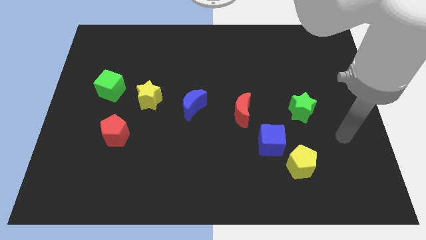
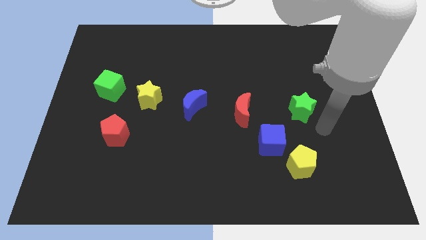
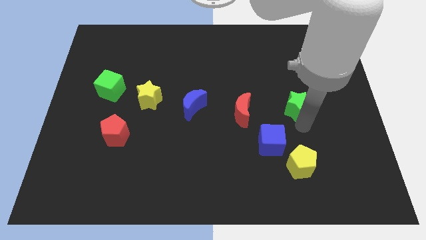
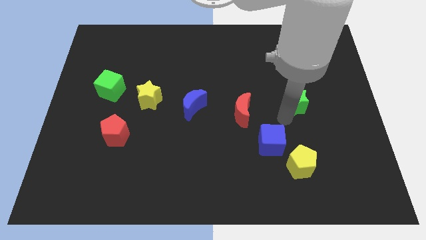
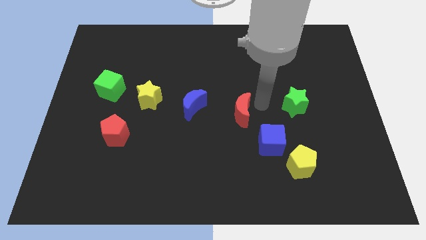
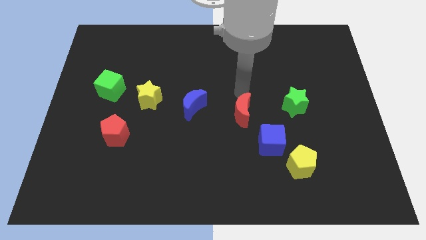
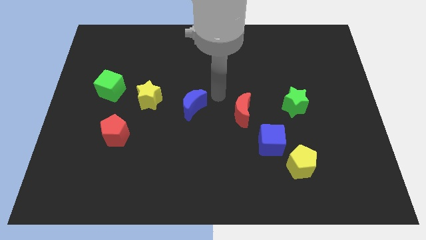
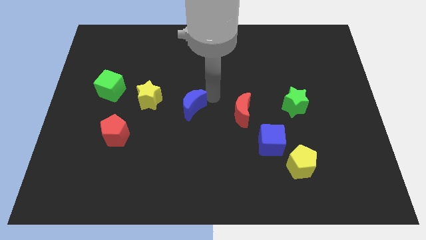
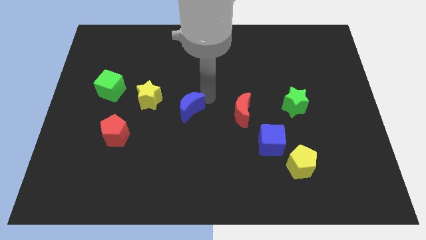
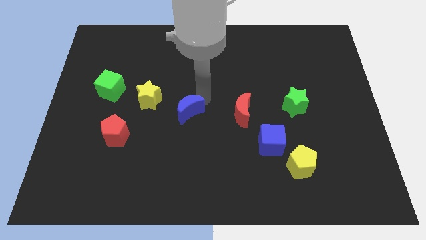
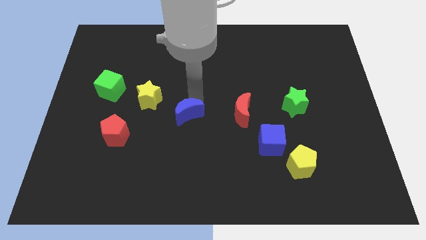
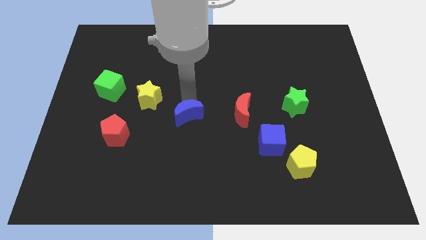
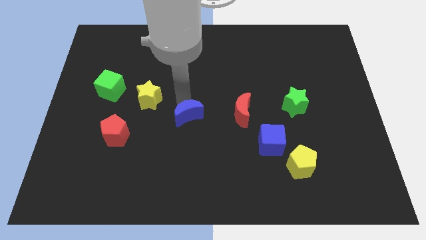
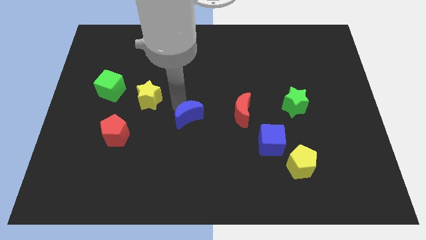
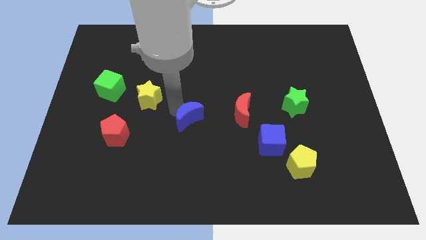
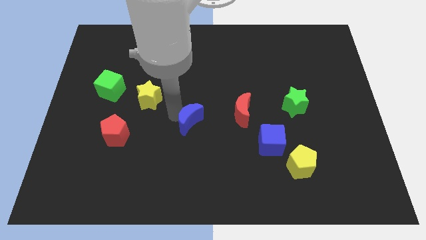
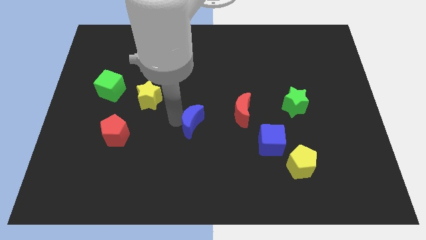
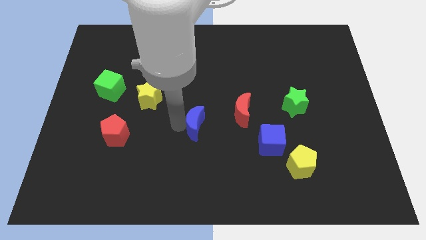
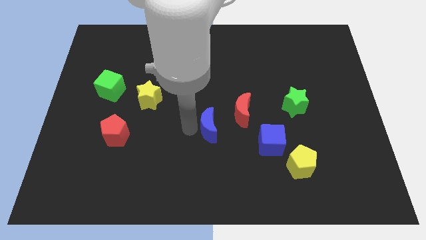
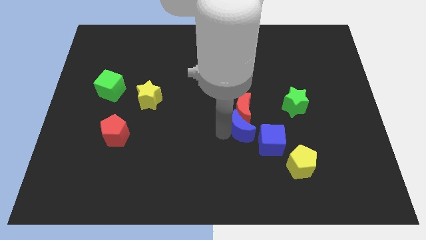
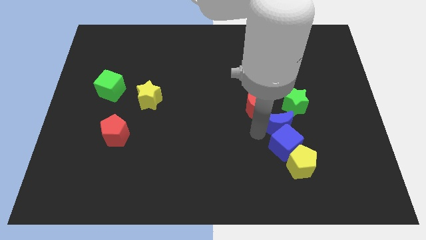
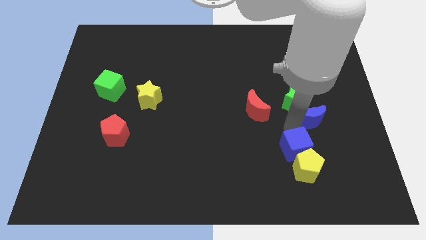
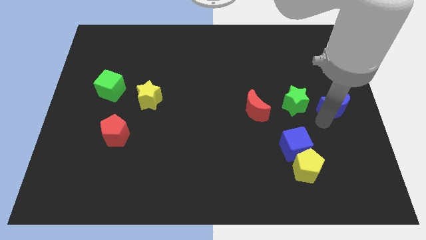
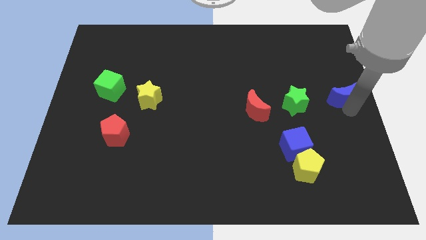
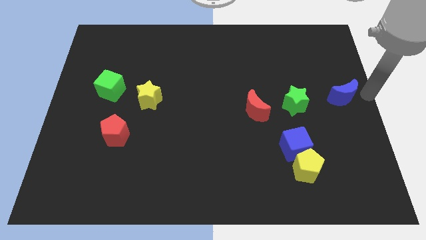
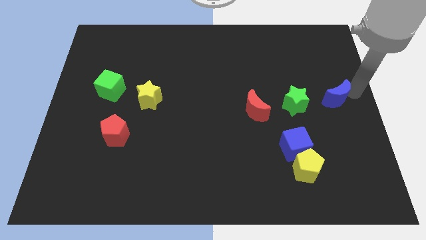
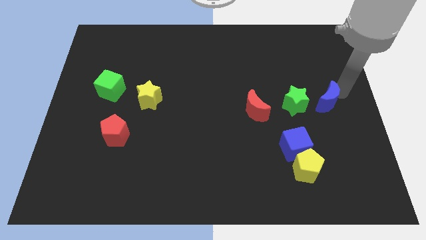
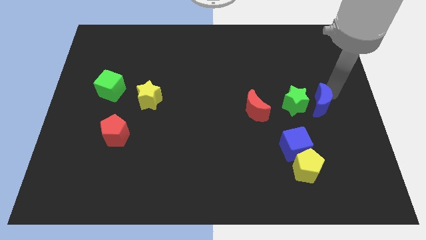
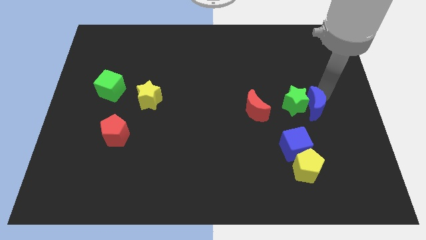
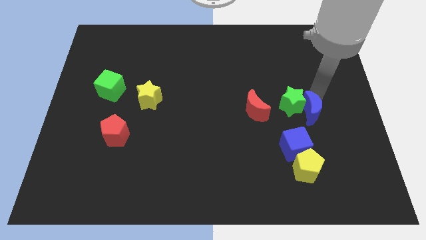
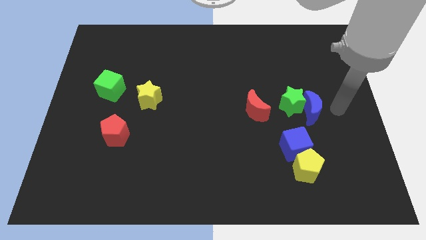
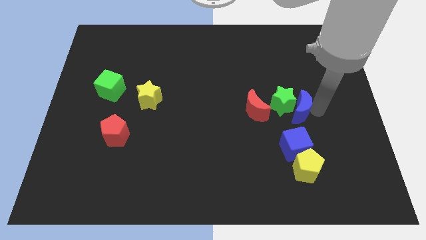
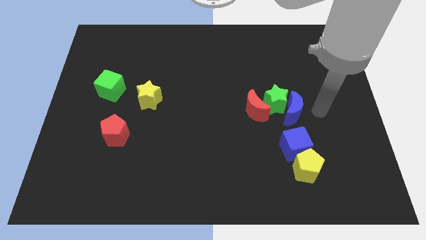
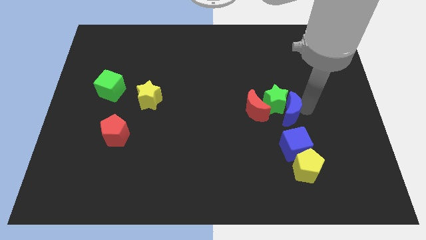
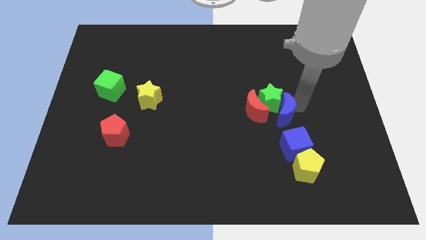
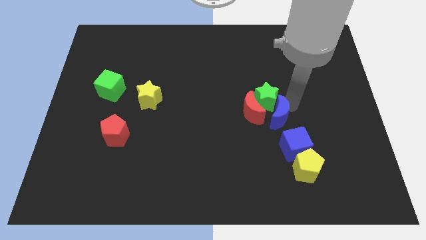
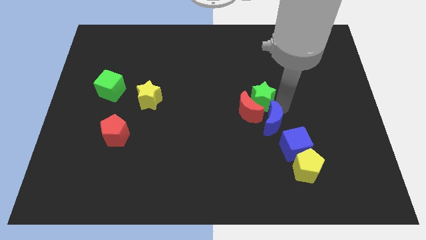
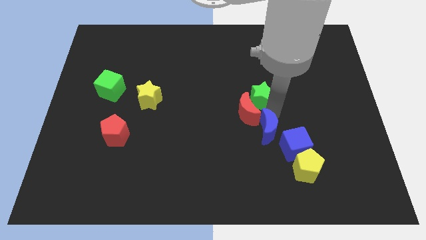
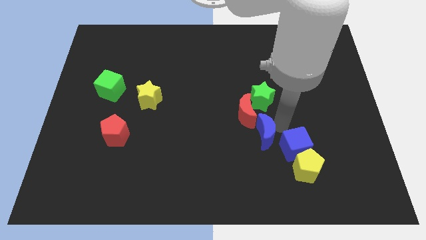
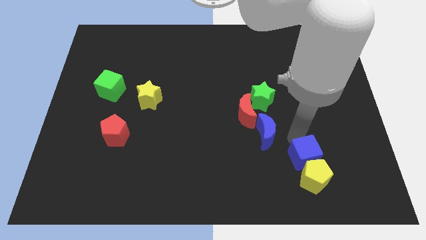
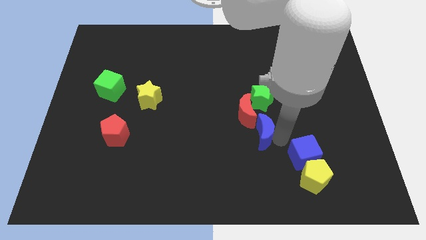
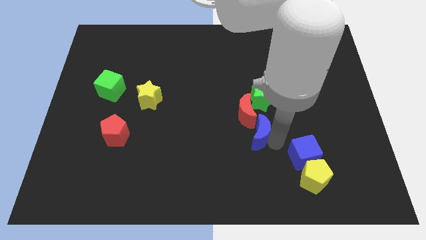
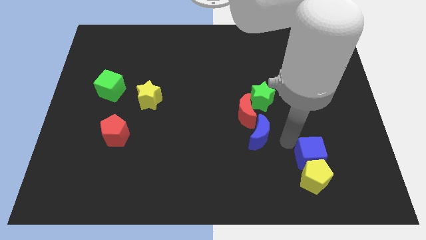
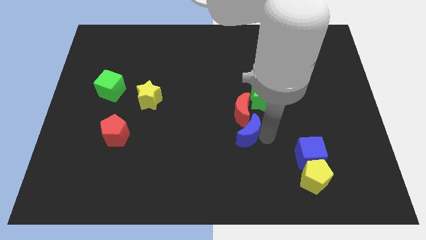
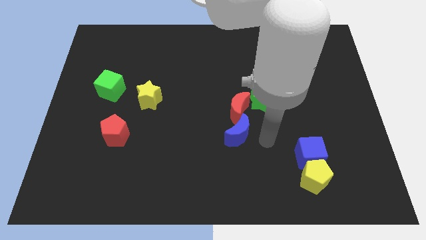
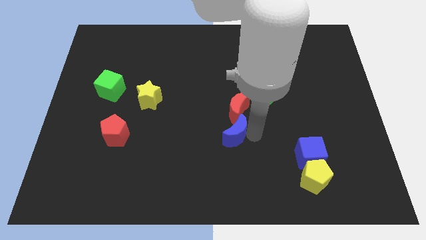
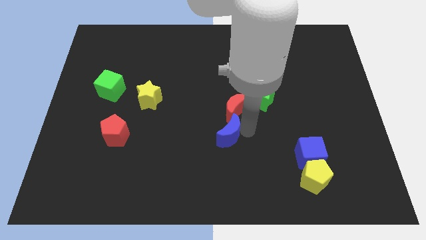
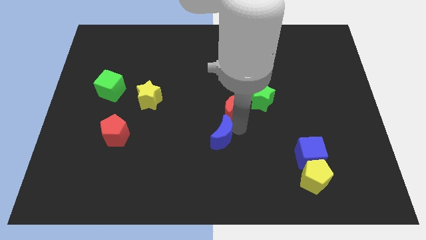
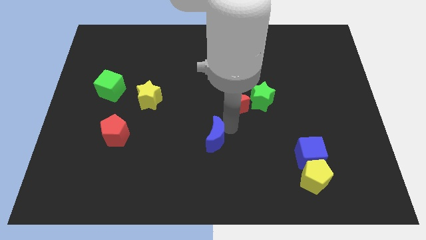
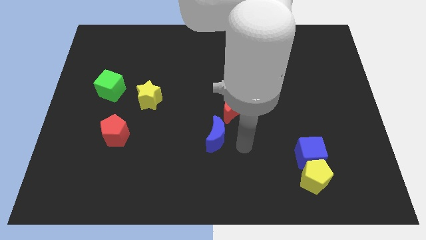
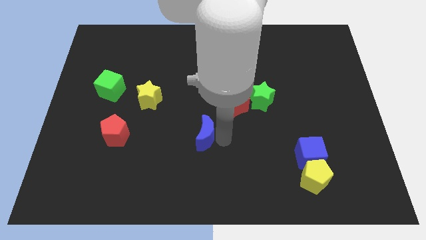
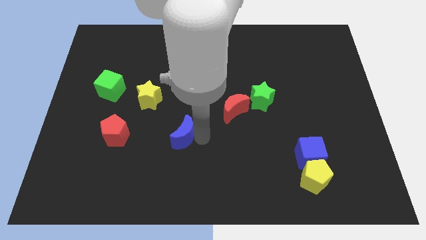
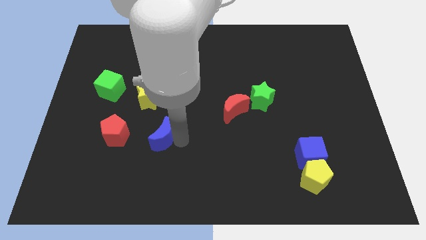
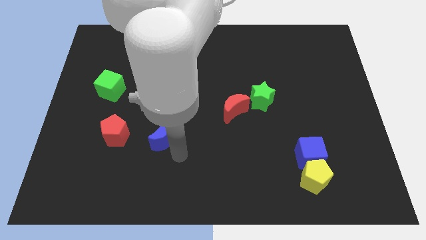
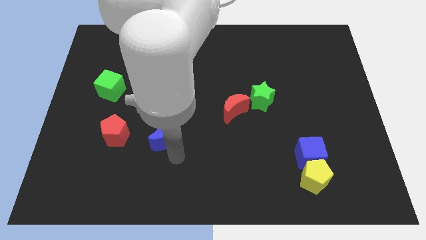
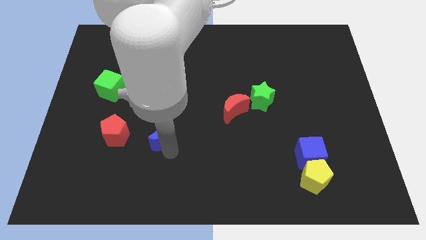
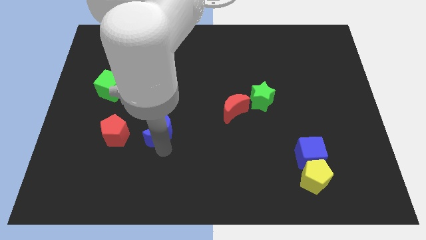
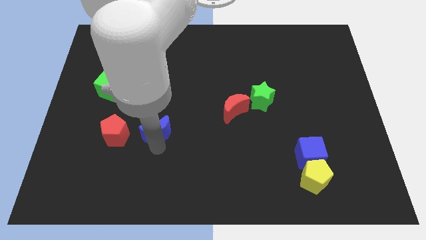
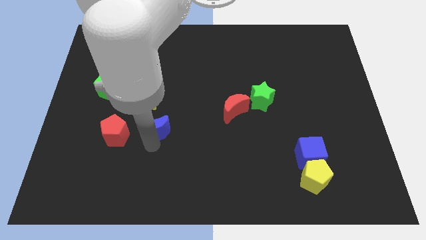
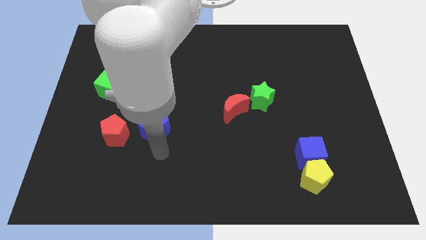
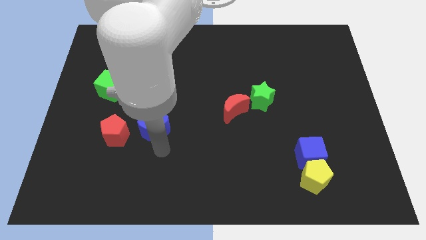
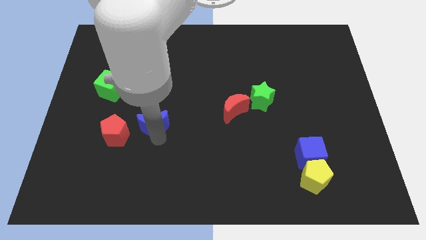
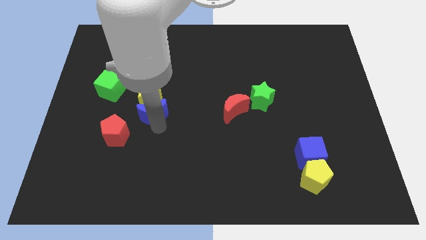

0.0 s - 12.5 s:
push the blue moon to the bottom left side of the yellow star
